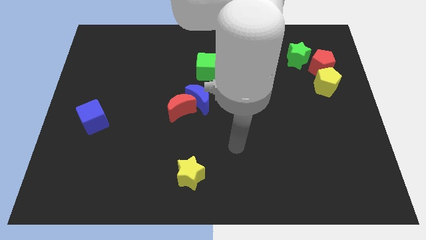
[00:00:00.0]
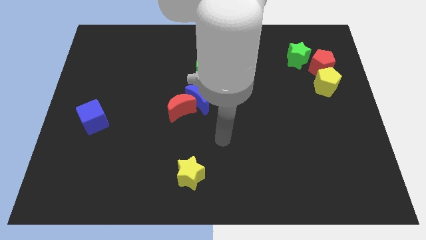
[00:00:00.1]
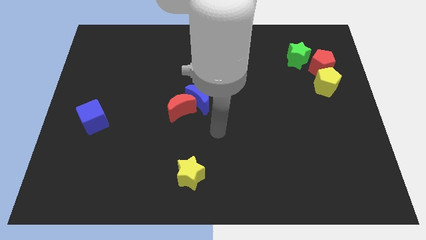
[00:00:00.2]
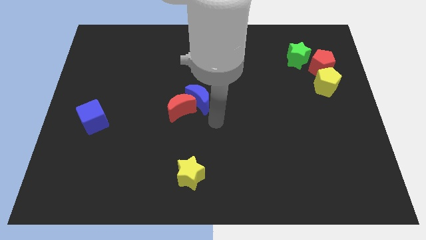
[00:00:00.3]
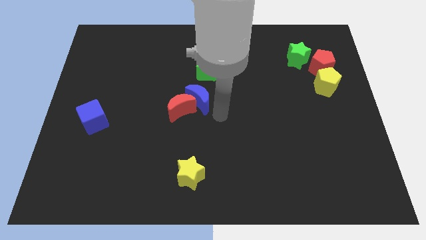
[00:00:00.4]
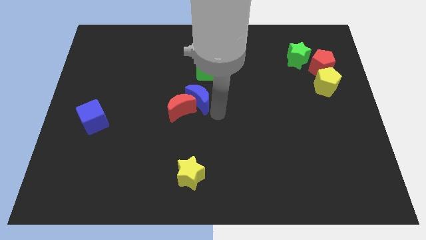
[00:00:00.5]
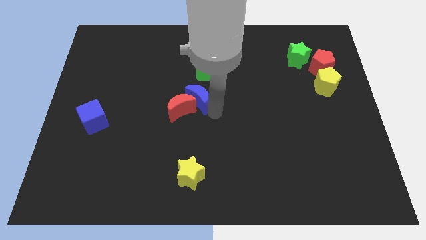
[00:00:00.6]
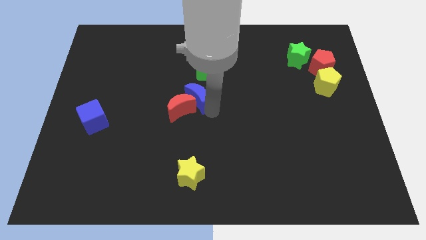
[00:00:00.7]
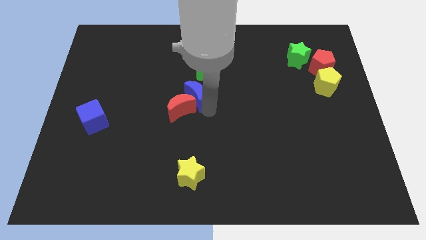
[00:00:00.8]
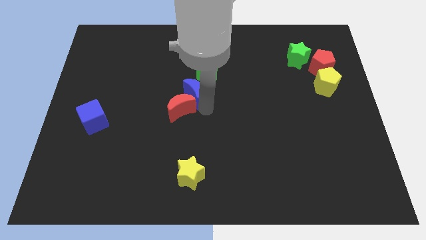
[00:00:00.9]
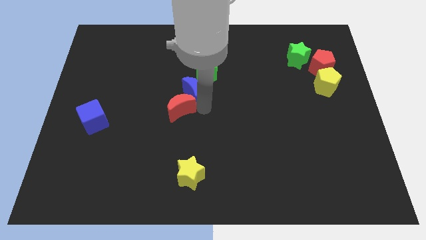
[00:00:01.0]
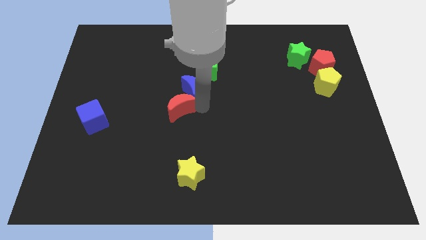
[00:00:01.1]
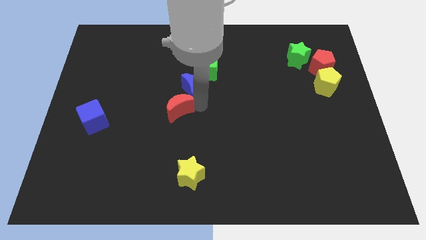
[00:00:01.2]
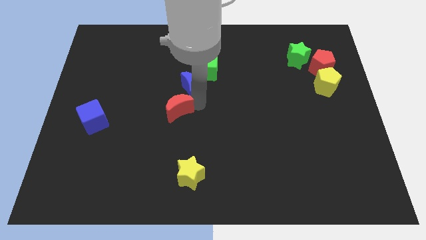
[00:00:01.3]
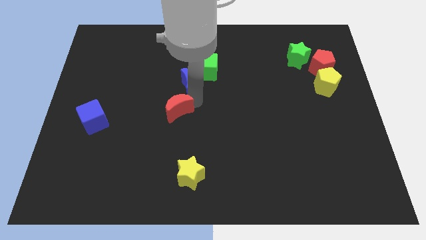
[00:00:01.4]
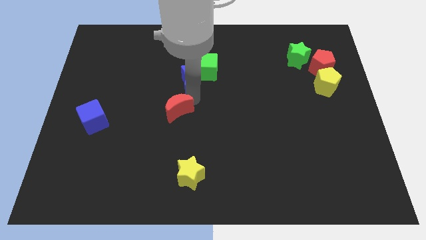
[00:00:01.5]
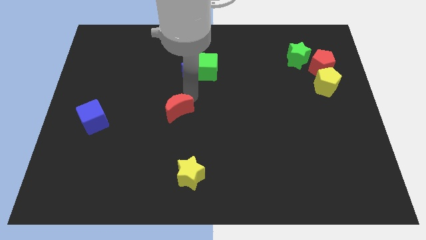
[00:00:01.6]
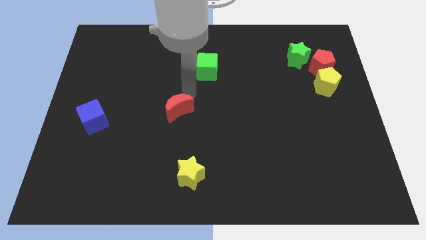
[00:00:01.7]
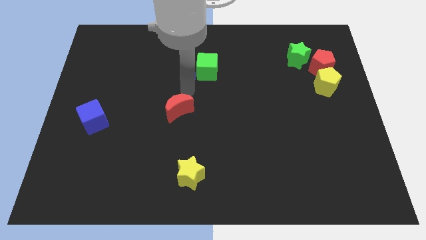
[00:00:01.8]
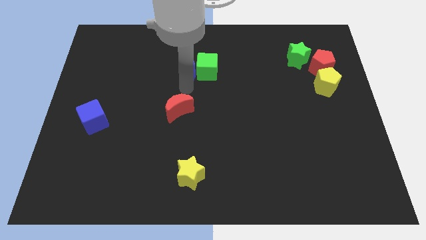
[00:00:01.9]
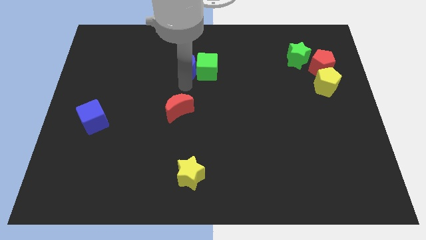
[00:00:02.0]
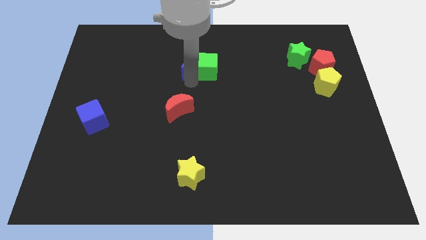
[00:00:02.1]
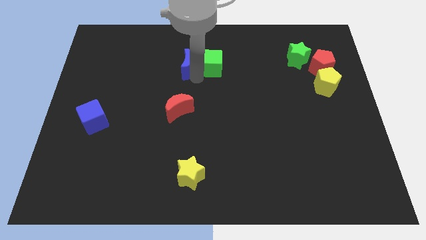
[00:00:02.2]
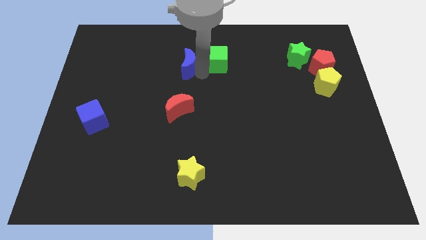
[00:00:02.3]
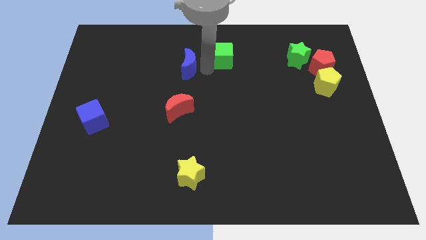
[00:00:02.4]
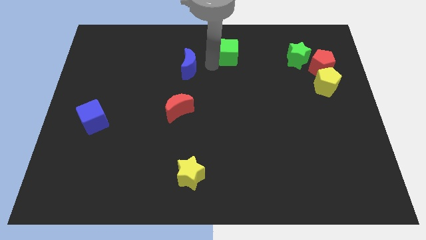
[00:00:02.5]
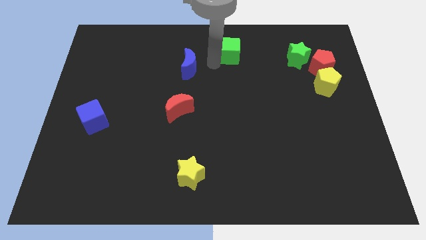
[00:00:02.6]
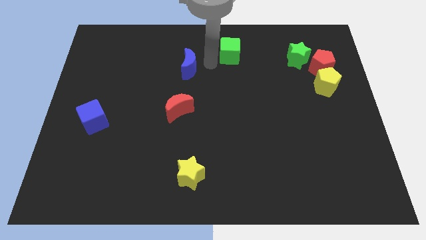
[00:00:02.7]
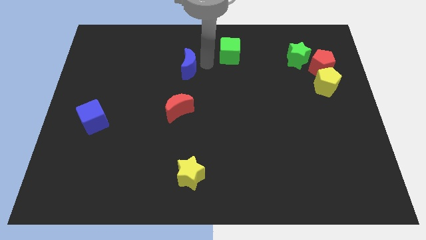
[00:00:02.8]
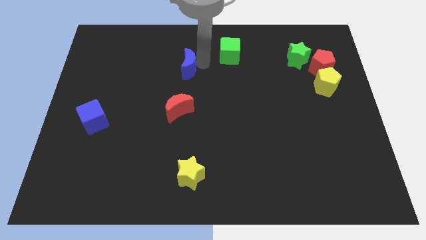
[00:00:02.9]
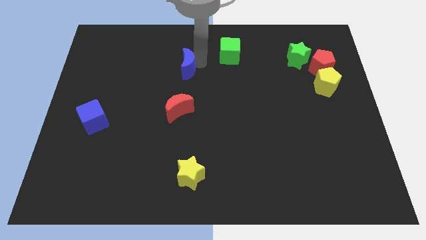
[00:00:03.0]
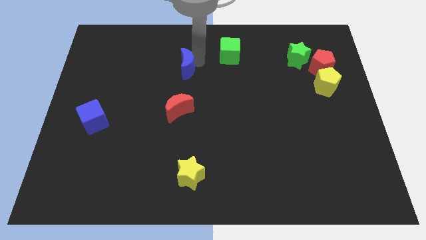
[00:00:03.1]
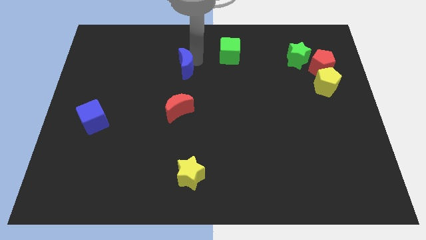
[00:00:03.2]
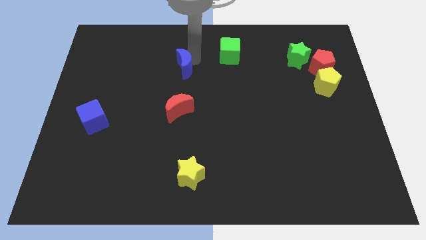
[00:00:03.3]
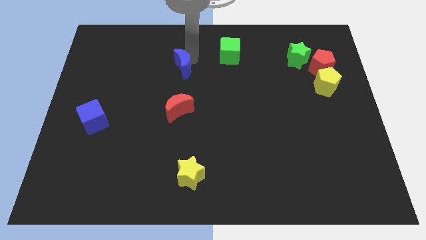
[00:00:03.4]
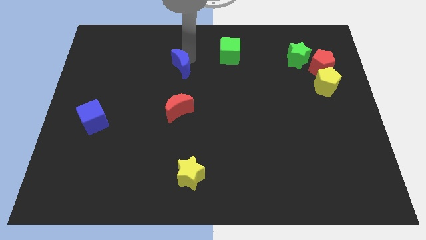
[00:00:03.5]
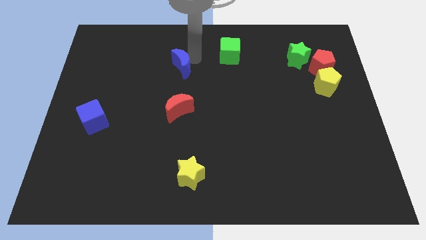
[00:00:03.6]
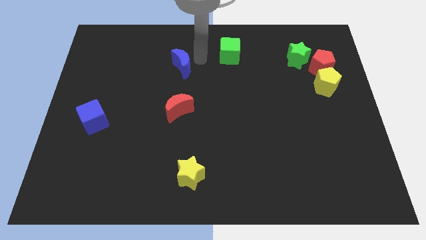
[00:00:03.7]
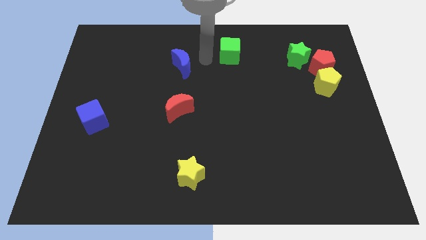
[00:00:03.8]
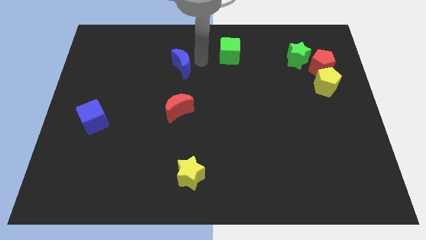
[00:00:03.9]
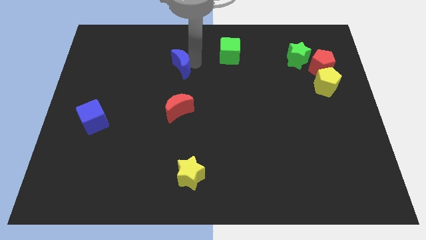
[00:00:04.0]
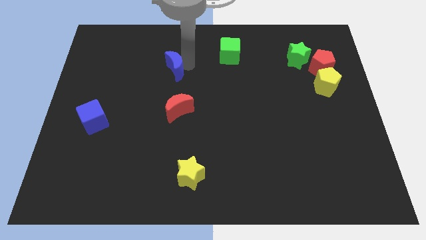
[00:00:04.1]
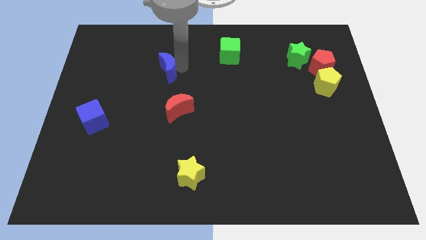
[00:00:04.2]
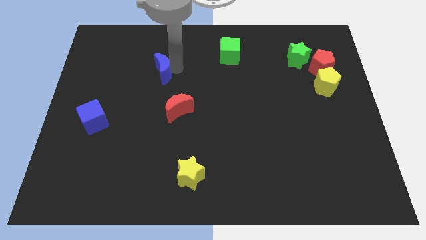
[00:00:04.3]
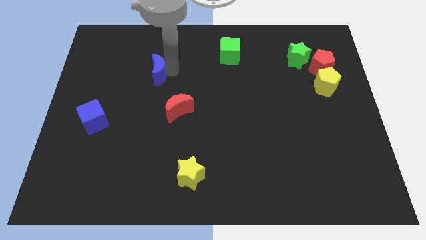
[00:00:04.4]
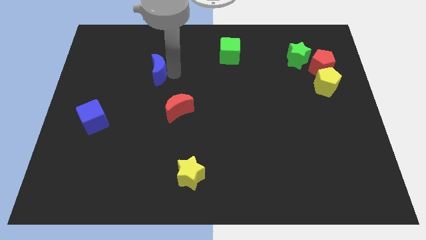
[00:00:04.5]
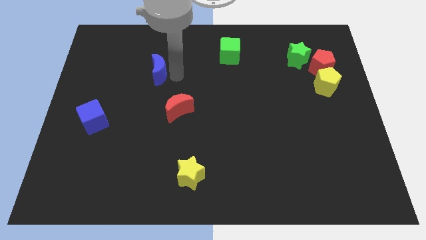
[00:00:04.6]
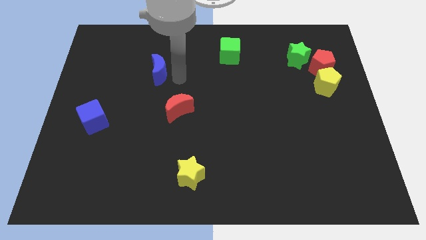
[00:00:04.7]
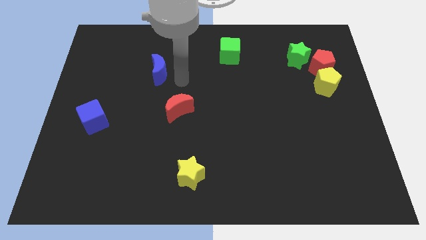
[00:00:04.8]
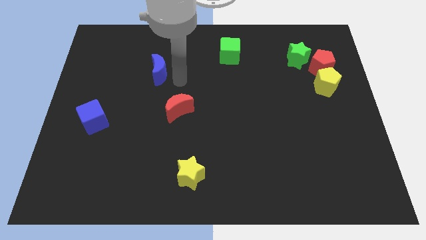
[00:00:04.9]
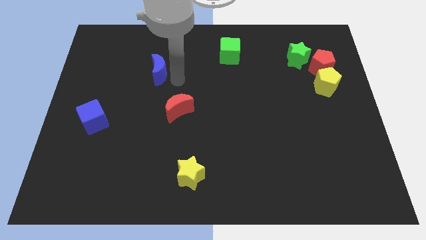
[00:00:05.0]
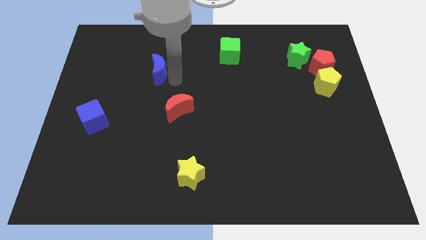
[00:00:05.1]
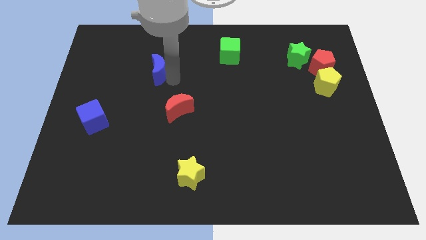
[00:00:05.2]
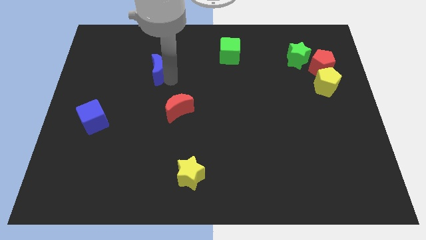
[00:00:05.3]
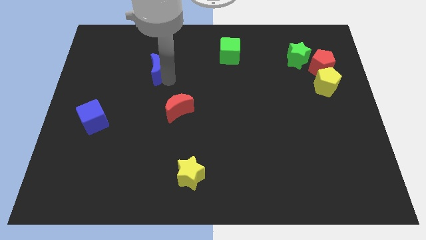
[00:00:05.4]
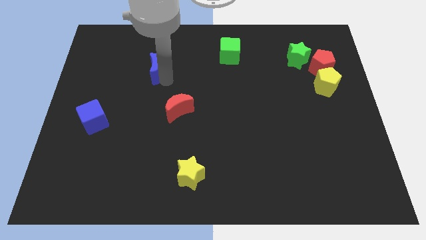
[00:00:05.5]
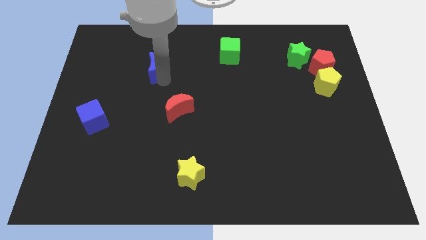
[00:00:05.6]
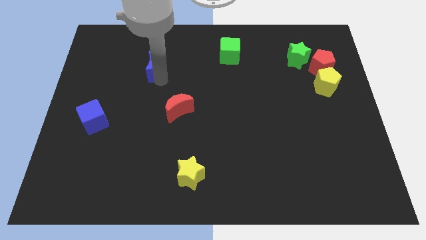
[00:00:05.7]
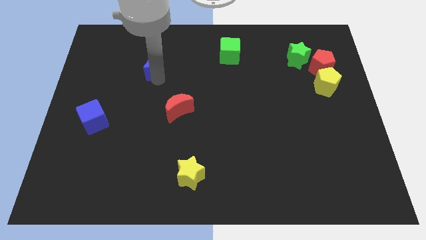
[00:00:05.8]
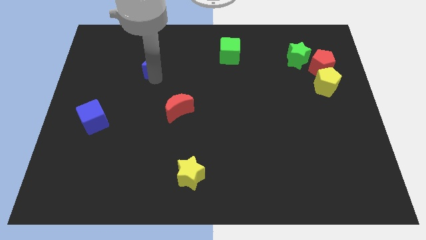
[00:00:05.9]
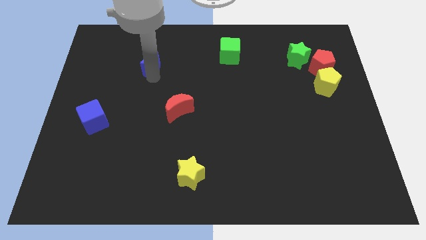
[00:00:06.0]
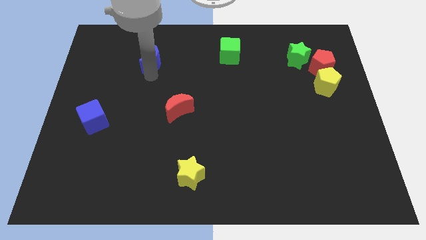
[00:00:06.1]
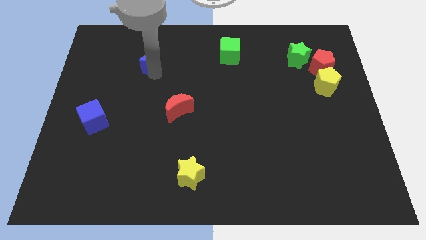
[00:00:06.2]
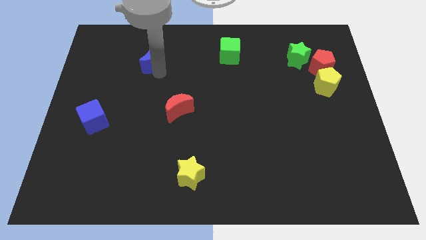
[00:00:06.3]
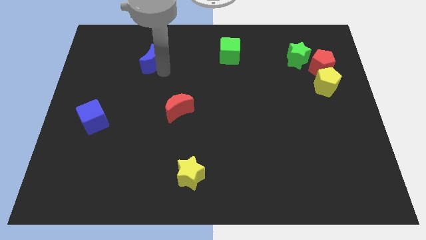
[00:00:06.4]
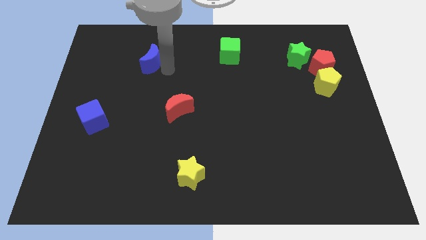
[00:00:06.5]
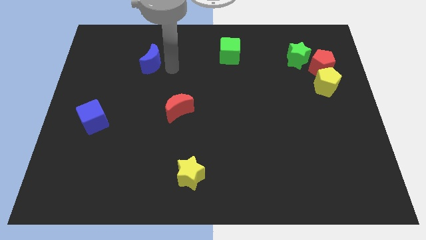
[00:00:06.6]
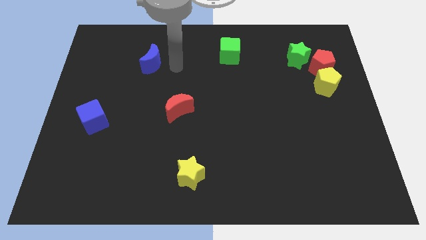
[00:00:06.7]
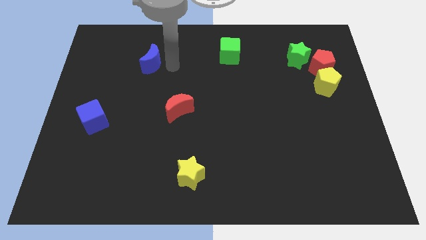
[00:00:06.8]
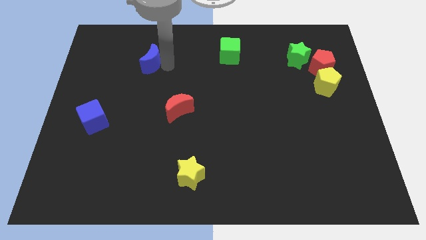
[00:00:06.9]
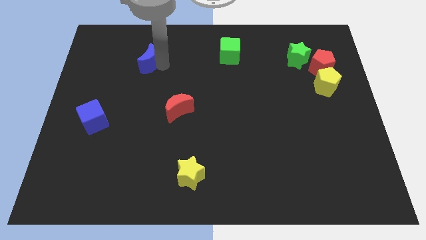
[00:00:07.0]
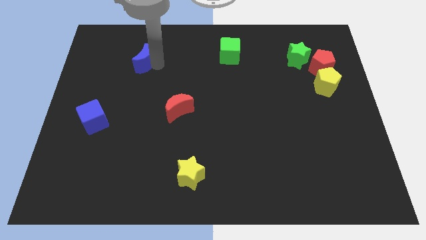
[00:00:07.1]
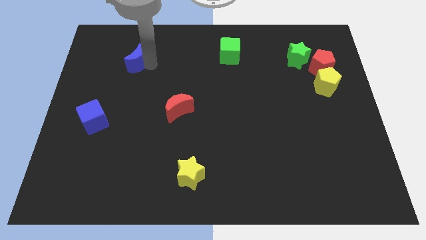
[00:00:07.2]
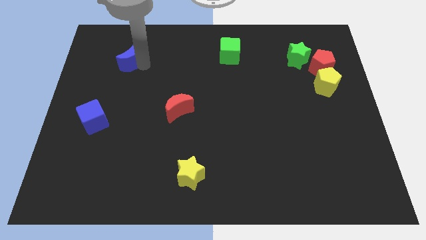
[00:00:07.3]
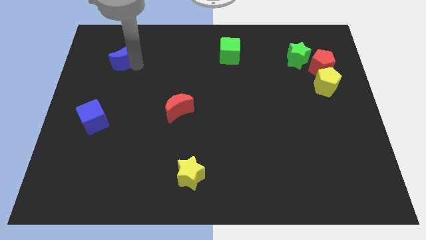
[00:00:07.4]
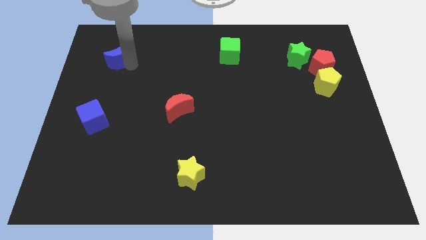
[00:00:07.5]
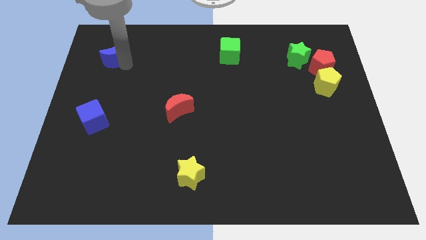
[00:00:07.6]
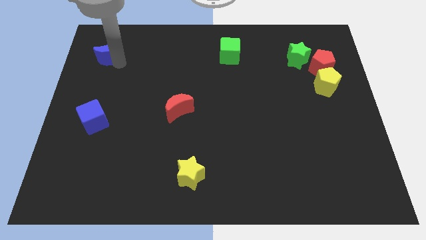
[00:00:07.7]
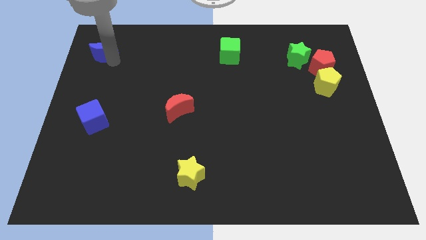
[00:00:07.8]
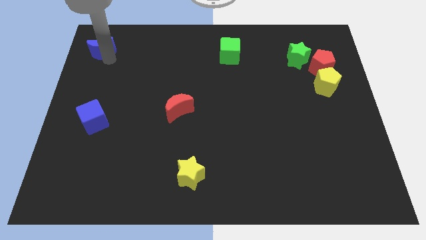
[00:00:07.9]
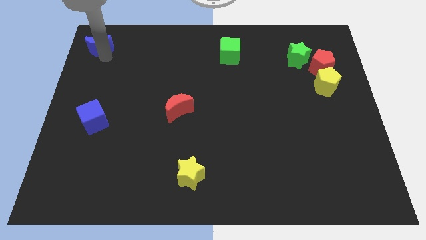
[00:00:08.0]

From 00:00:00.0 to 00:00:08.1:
slide the blue moon to the top left
